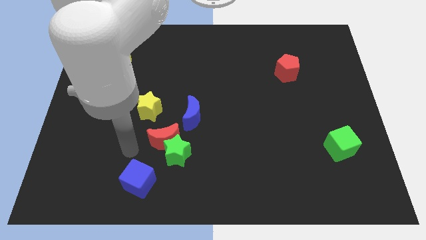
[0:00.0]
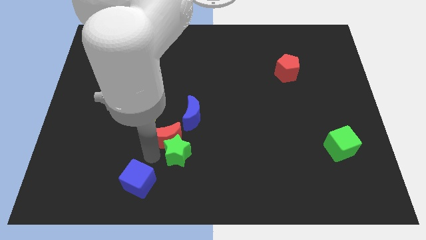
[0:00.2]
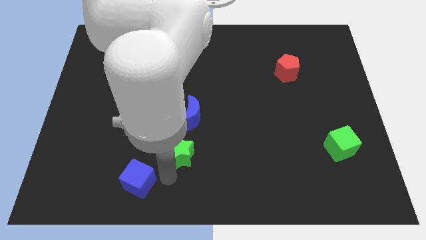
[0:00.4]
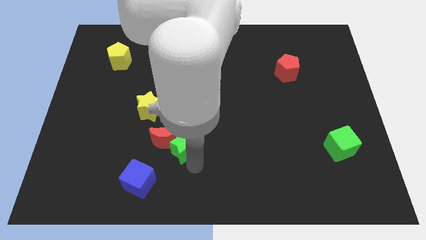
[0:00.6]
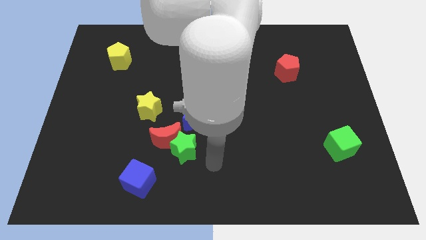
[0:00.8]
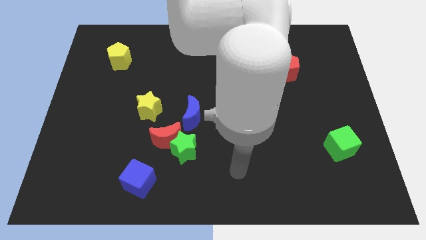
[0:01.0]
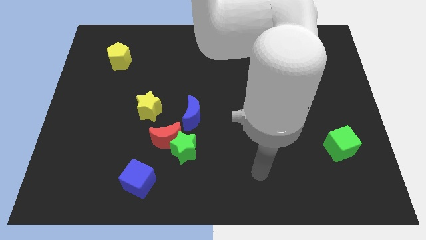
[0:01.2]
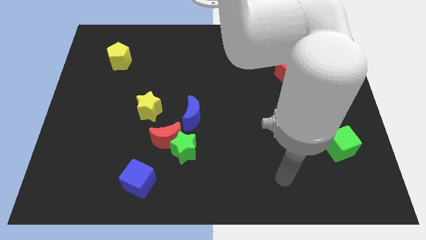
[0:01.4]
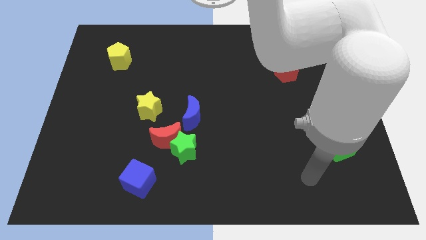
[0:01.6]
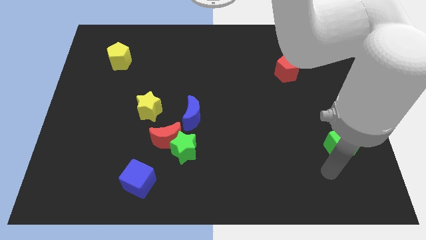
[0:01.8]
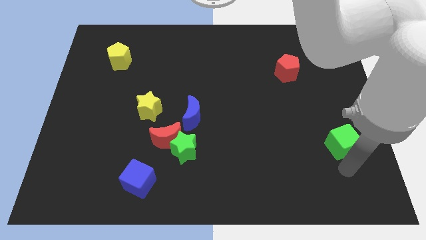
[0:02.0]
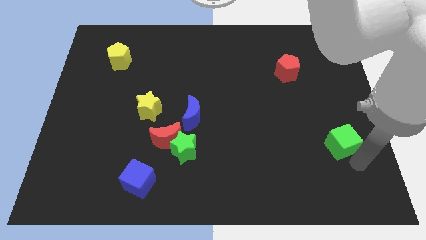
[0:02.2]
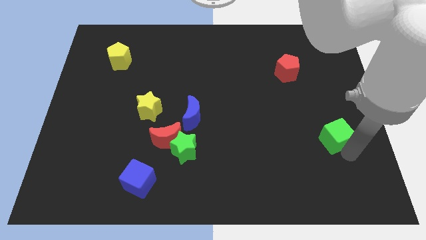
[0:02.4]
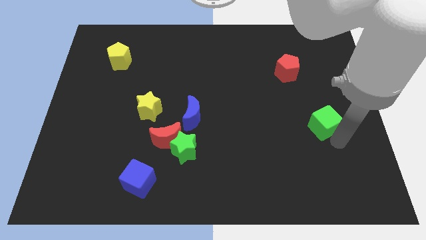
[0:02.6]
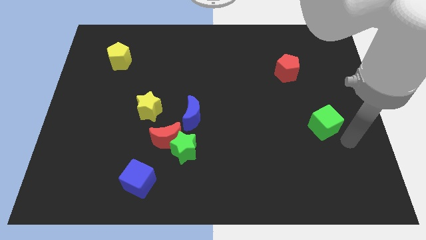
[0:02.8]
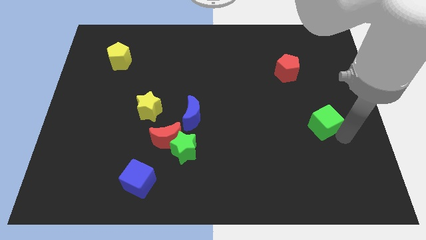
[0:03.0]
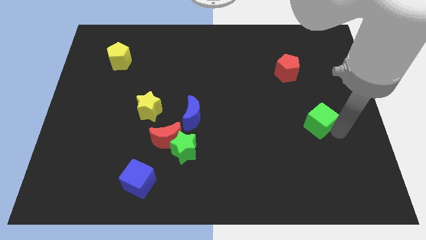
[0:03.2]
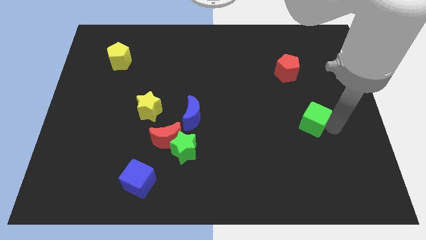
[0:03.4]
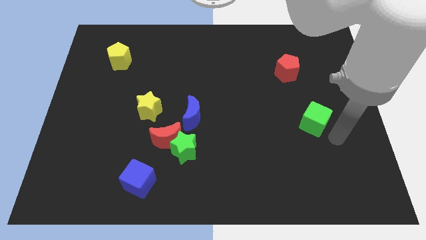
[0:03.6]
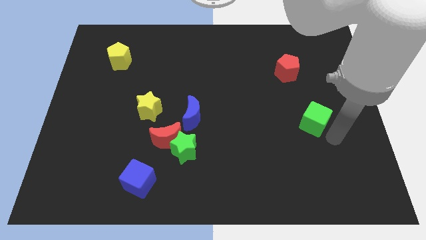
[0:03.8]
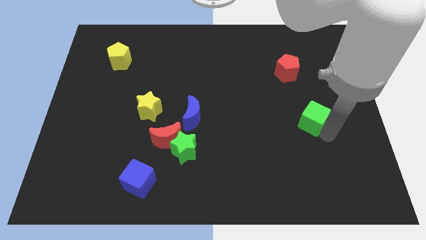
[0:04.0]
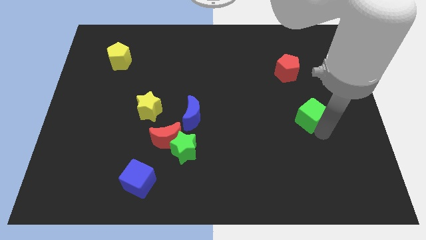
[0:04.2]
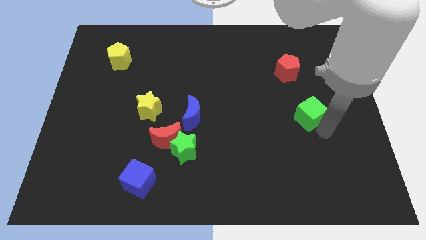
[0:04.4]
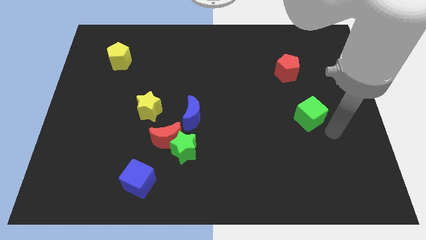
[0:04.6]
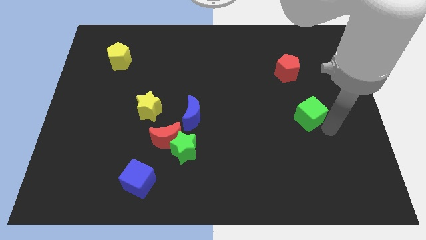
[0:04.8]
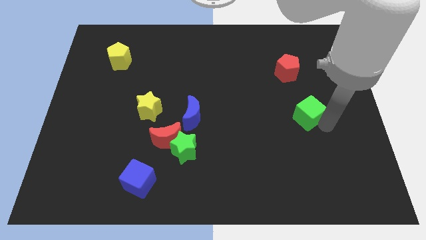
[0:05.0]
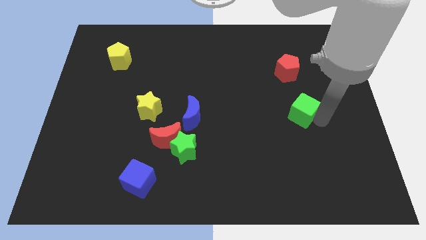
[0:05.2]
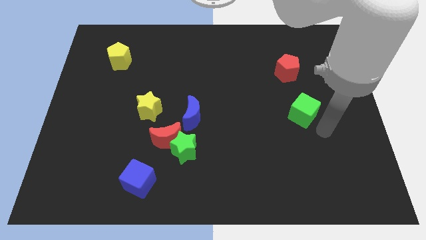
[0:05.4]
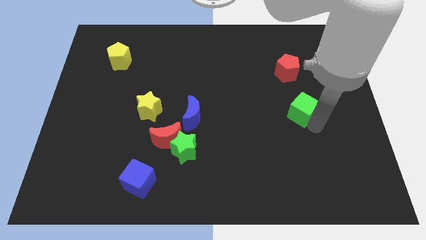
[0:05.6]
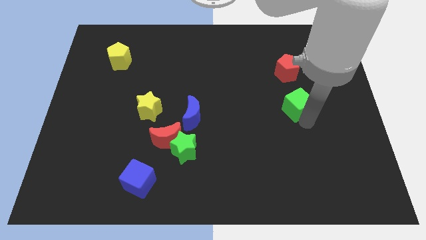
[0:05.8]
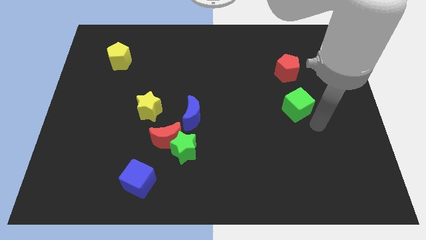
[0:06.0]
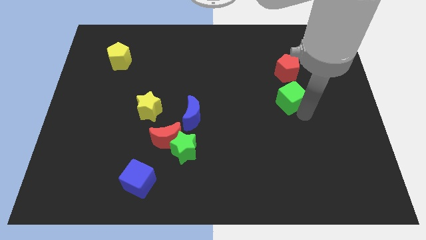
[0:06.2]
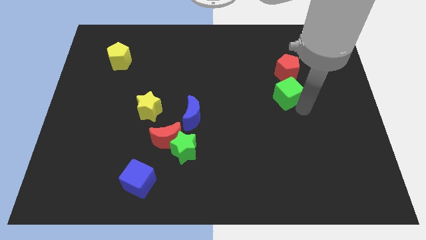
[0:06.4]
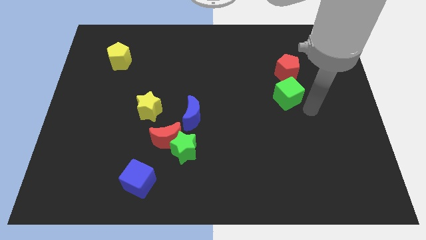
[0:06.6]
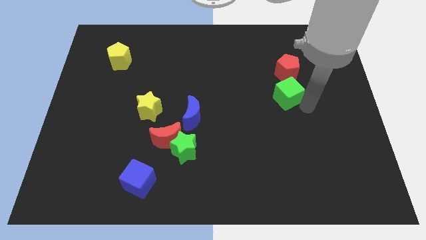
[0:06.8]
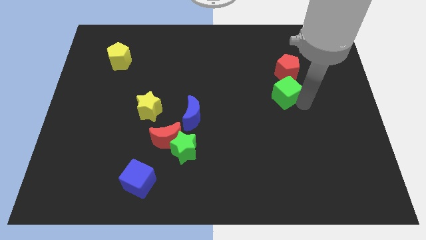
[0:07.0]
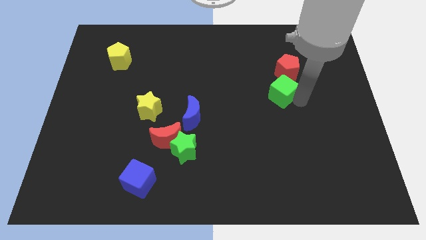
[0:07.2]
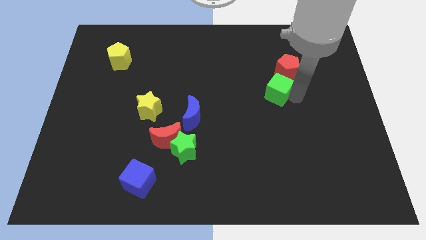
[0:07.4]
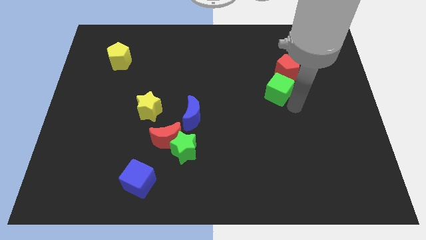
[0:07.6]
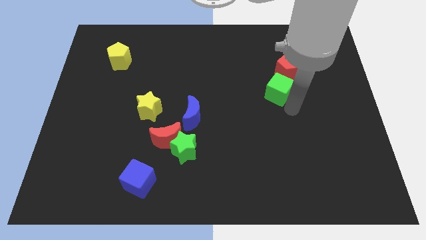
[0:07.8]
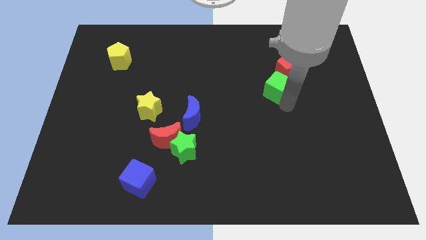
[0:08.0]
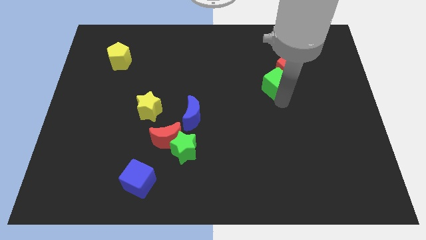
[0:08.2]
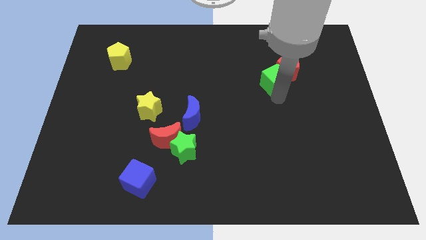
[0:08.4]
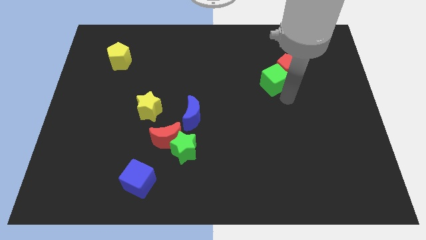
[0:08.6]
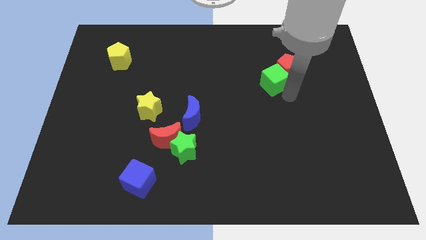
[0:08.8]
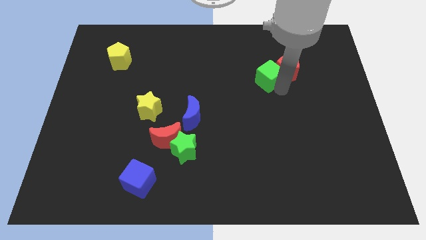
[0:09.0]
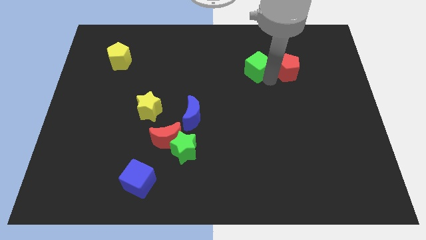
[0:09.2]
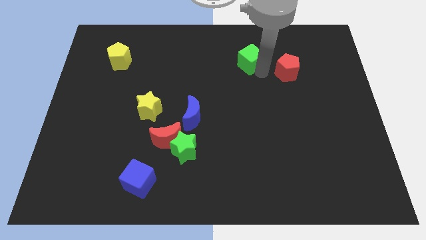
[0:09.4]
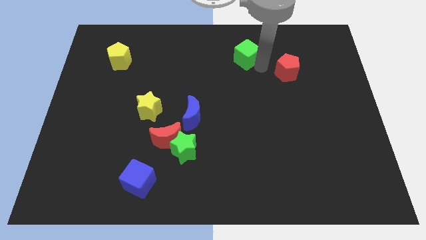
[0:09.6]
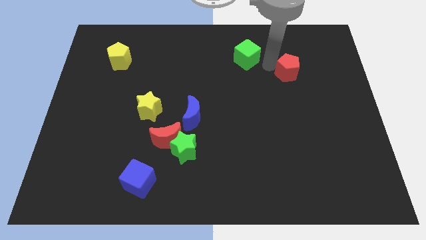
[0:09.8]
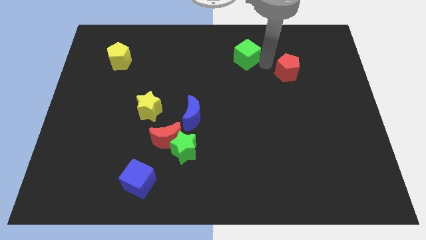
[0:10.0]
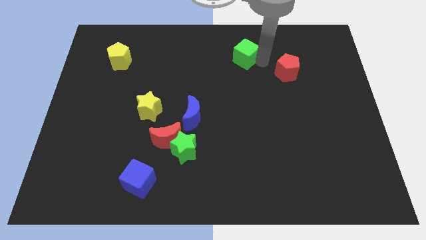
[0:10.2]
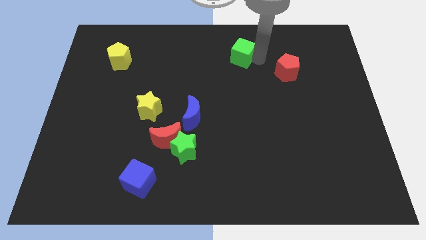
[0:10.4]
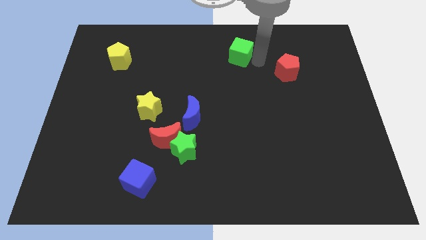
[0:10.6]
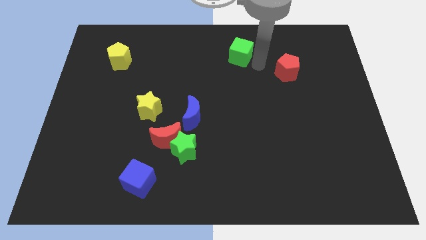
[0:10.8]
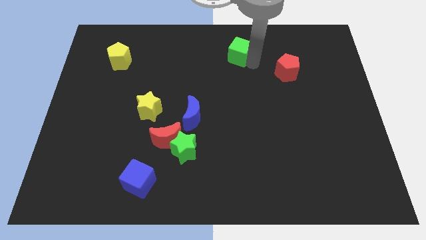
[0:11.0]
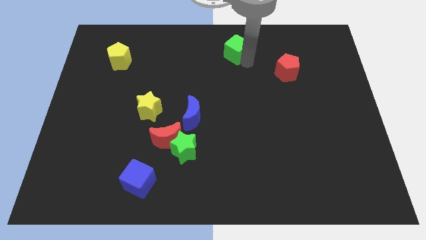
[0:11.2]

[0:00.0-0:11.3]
move the green cube to the top

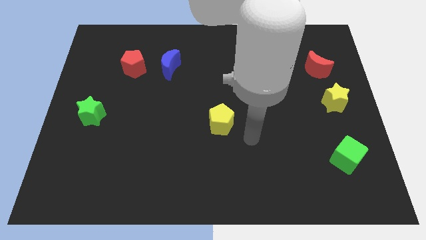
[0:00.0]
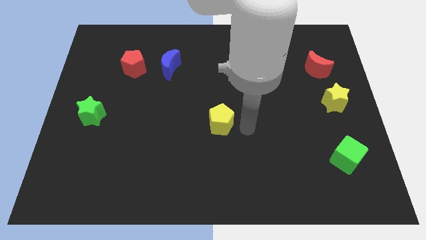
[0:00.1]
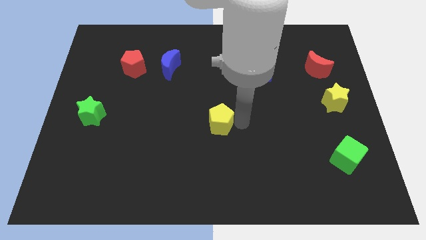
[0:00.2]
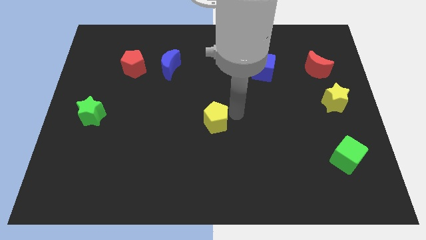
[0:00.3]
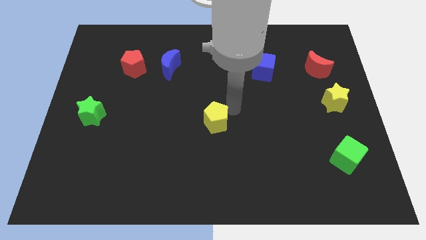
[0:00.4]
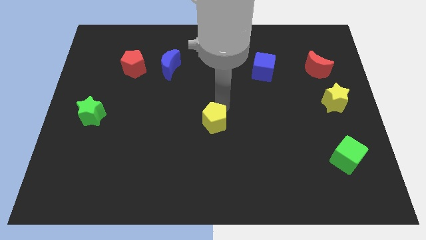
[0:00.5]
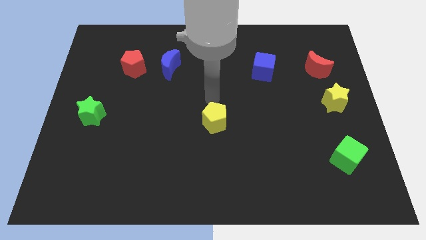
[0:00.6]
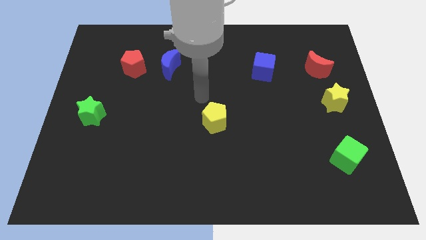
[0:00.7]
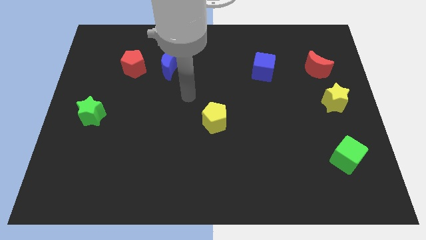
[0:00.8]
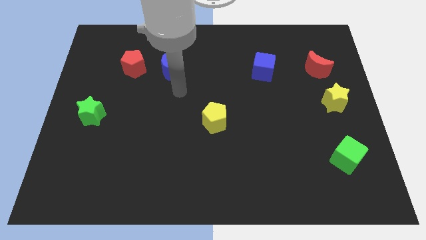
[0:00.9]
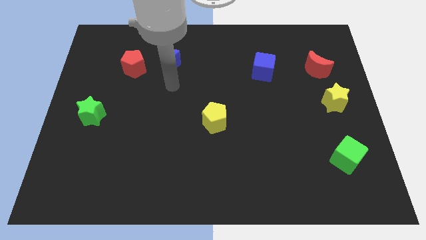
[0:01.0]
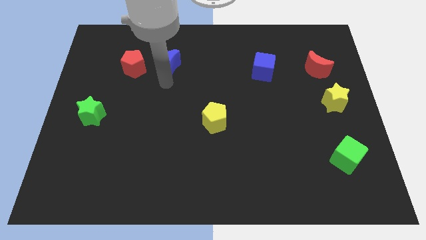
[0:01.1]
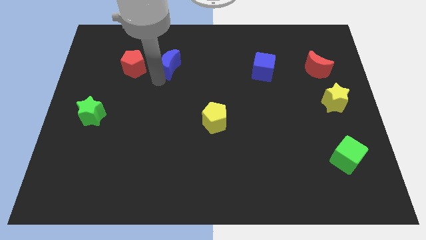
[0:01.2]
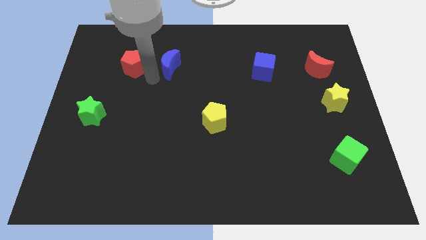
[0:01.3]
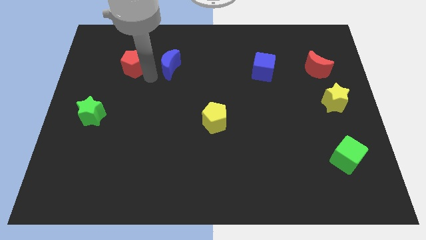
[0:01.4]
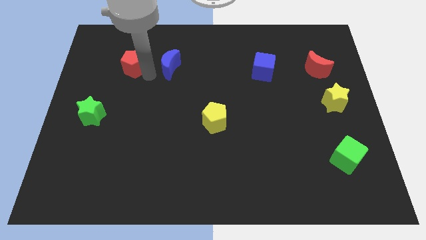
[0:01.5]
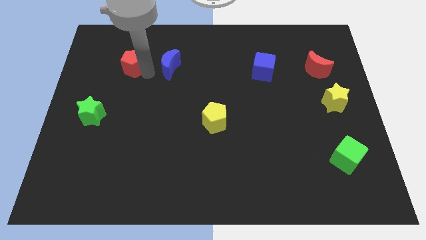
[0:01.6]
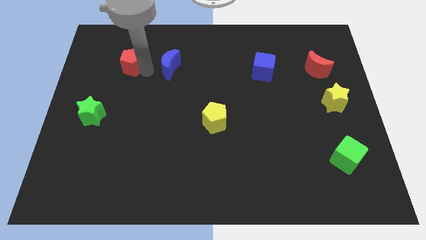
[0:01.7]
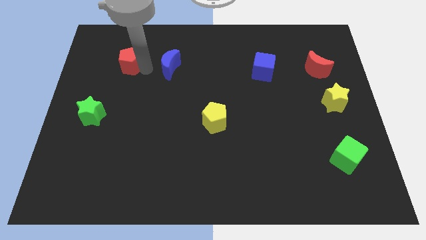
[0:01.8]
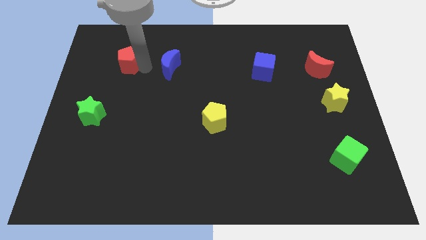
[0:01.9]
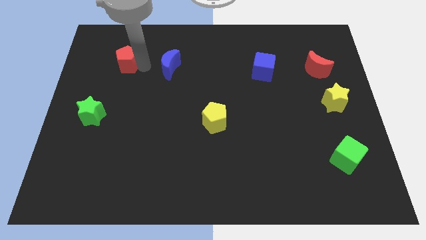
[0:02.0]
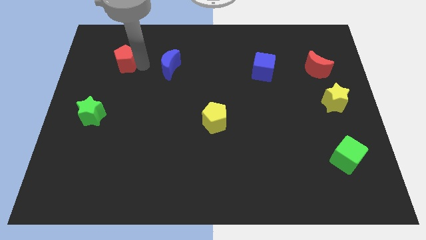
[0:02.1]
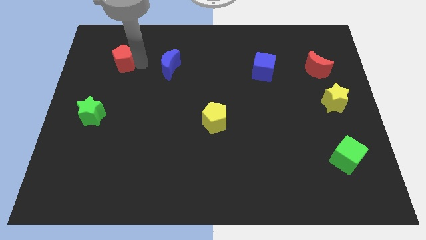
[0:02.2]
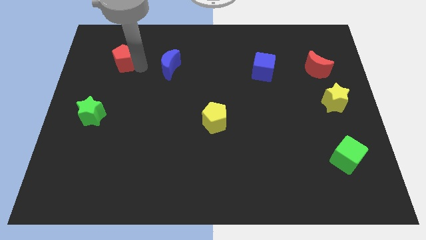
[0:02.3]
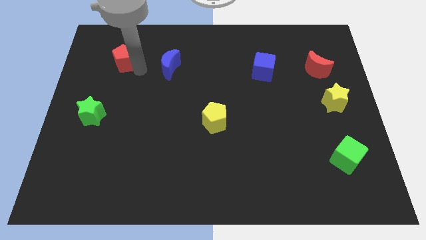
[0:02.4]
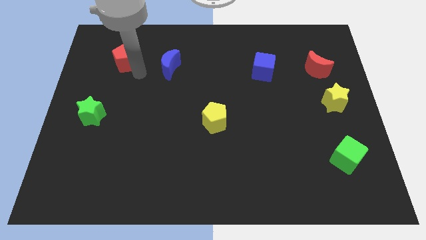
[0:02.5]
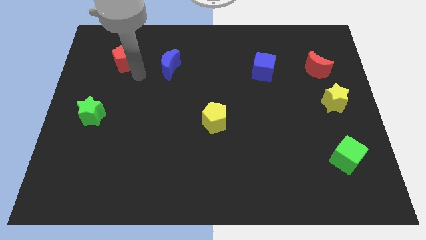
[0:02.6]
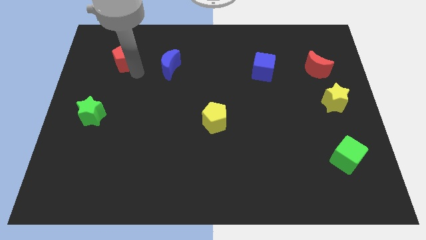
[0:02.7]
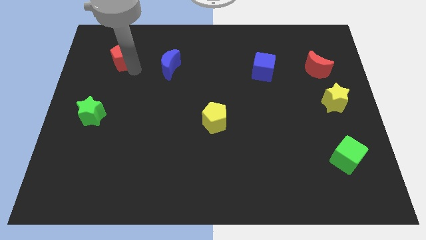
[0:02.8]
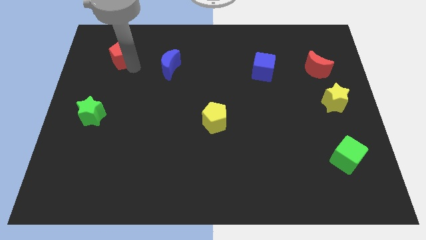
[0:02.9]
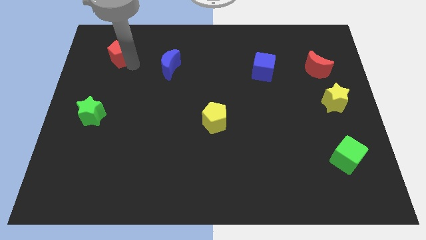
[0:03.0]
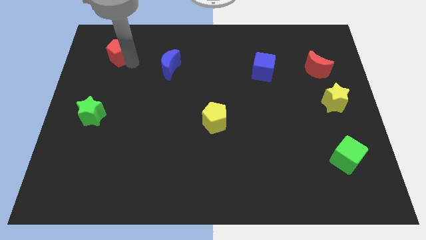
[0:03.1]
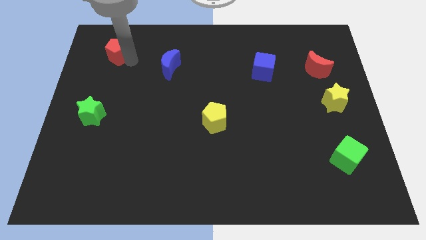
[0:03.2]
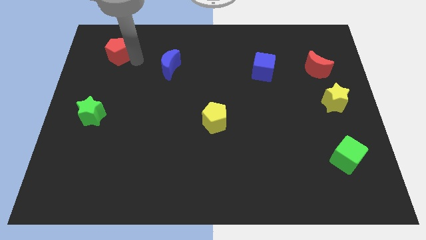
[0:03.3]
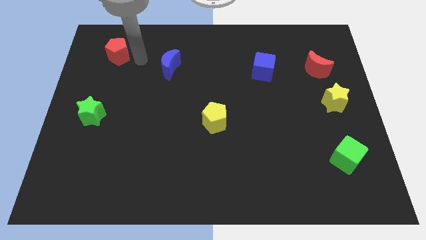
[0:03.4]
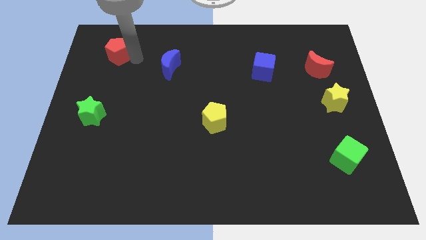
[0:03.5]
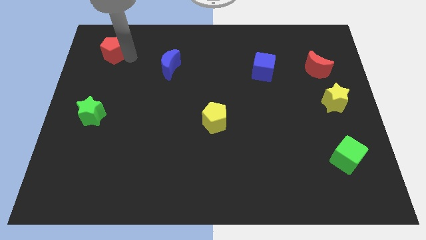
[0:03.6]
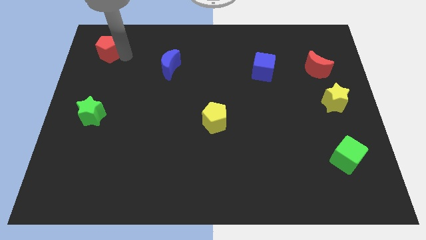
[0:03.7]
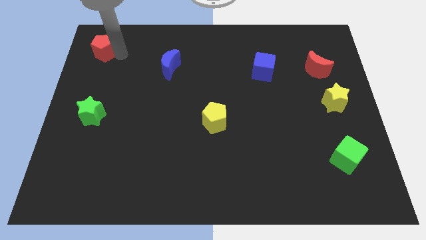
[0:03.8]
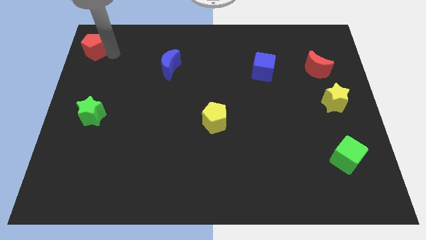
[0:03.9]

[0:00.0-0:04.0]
slide the red pentagon to the upper left corner
